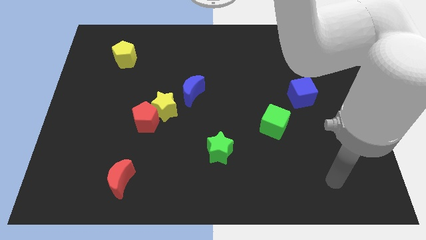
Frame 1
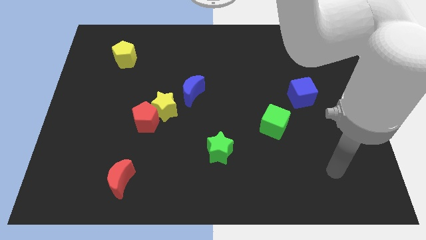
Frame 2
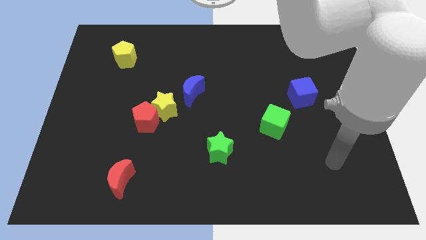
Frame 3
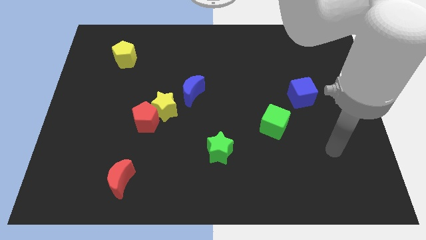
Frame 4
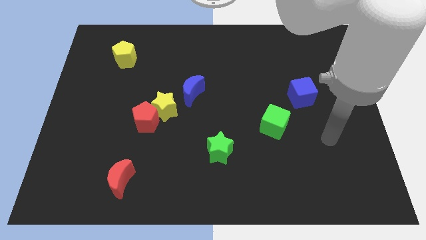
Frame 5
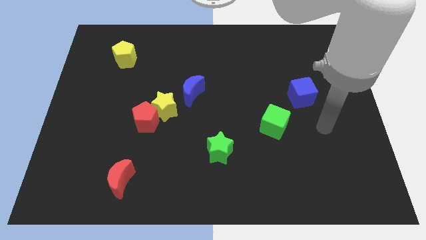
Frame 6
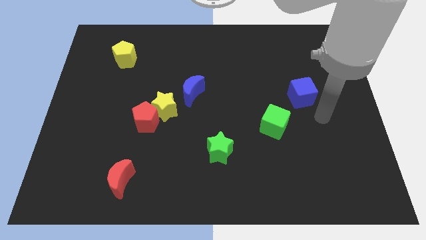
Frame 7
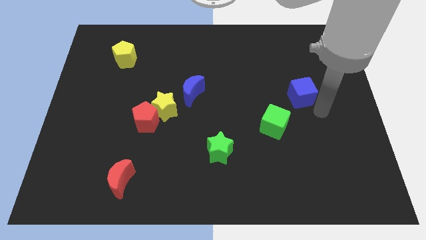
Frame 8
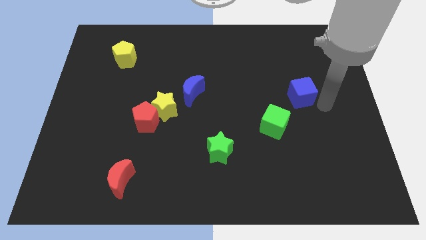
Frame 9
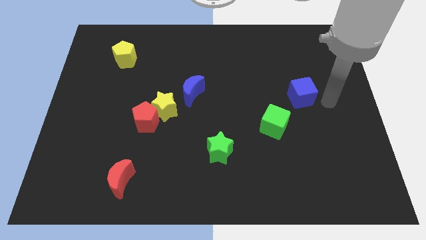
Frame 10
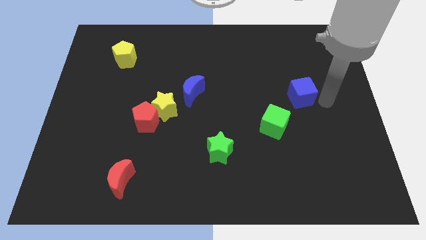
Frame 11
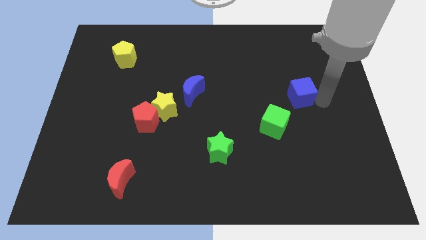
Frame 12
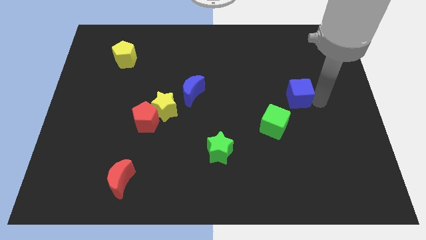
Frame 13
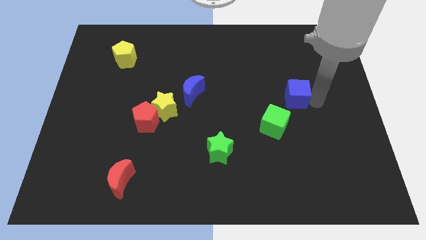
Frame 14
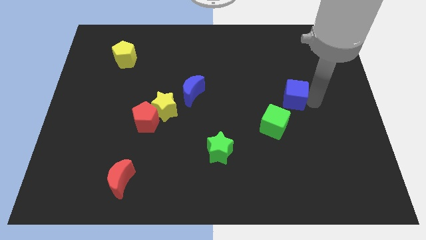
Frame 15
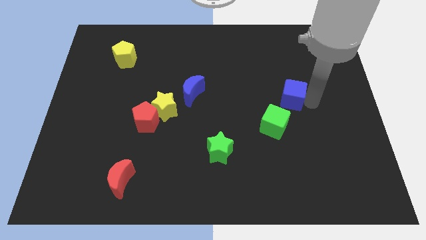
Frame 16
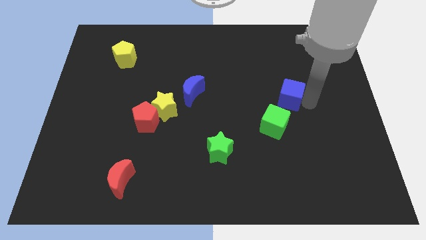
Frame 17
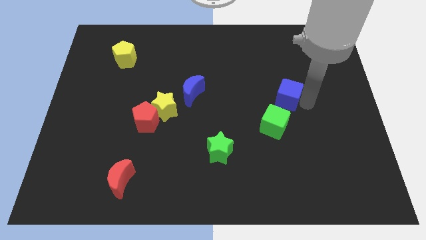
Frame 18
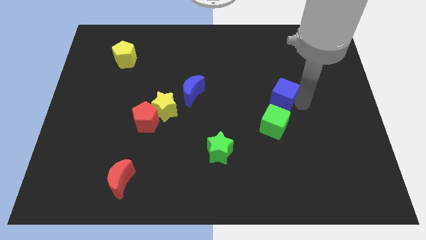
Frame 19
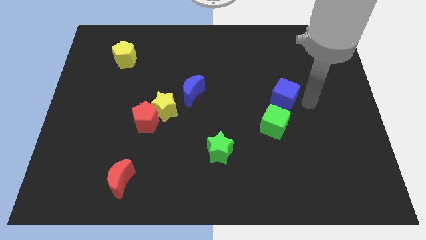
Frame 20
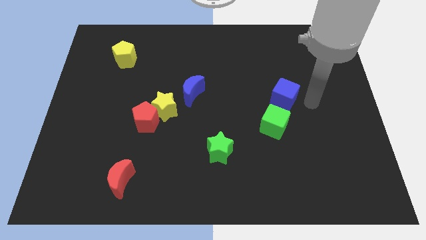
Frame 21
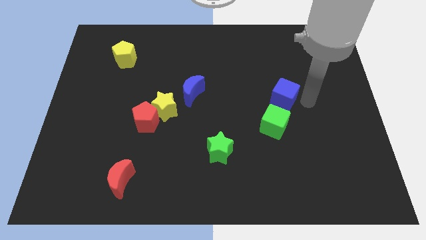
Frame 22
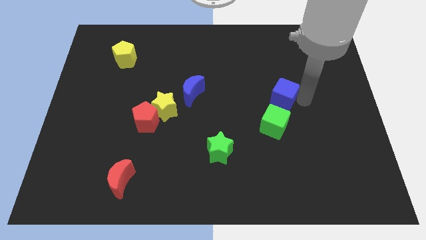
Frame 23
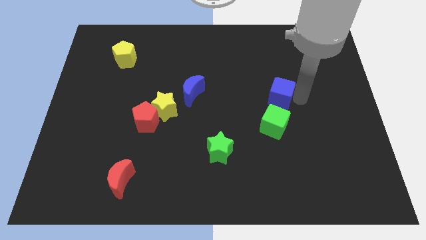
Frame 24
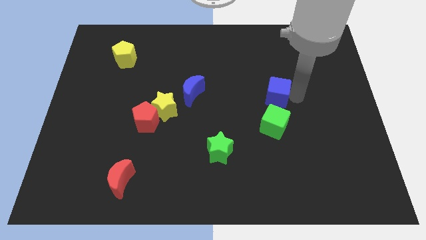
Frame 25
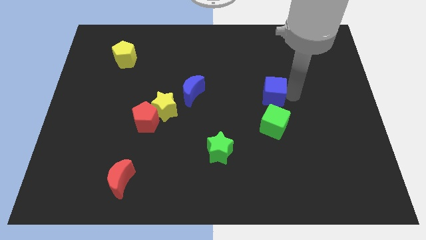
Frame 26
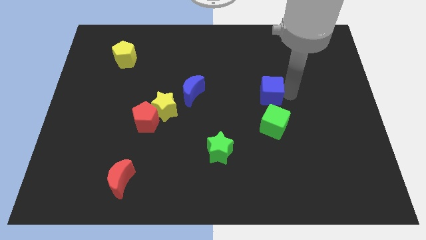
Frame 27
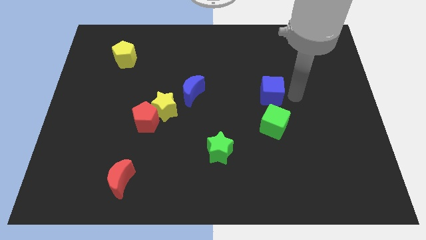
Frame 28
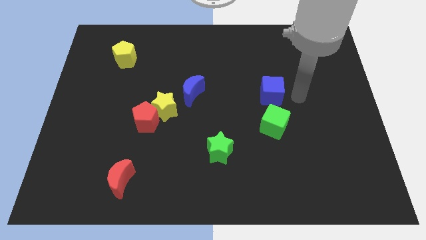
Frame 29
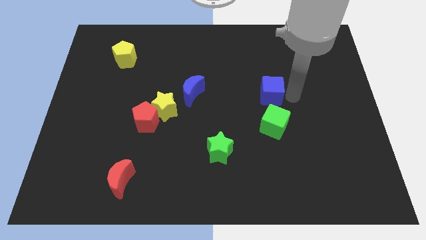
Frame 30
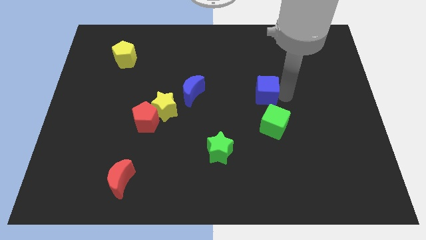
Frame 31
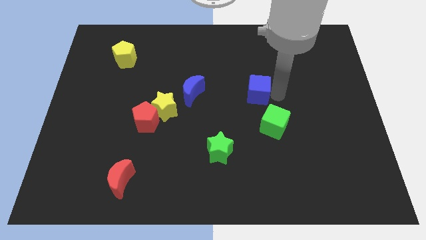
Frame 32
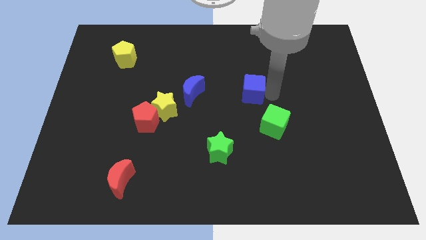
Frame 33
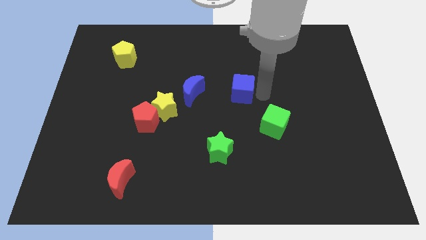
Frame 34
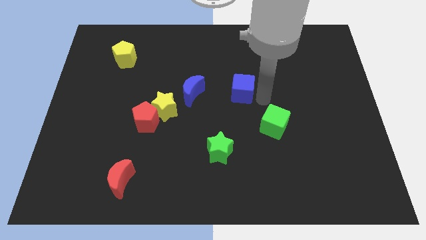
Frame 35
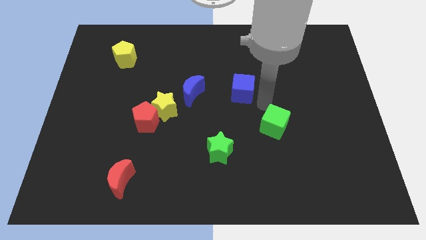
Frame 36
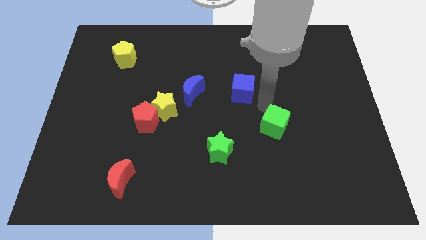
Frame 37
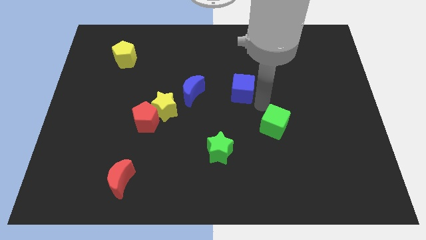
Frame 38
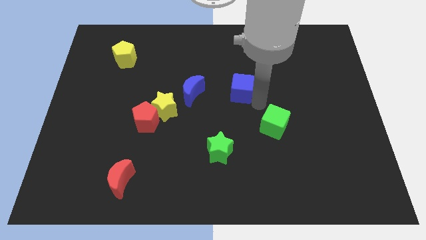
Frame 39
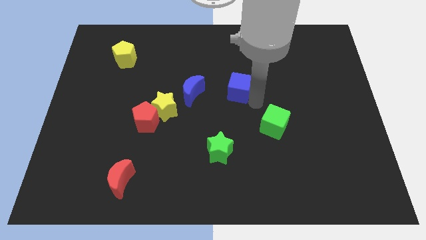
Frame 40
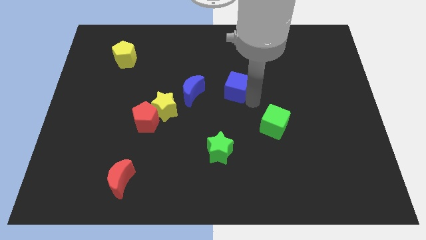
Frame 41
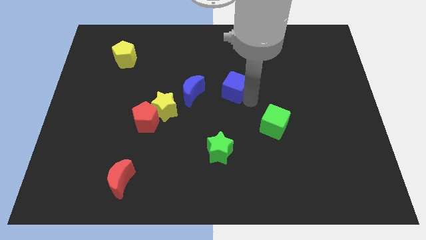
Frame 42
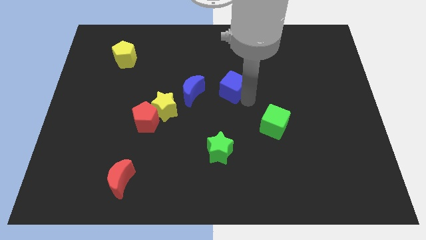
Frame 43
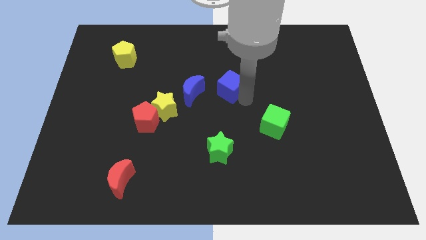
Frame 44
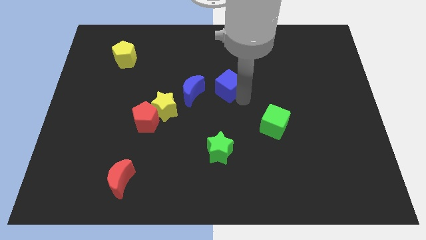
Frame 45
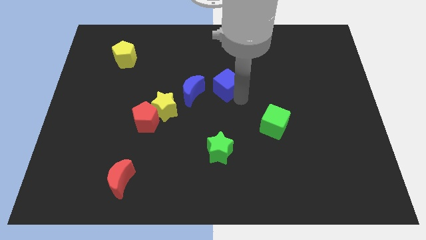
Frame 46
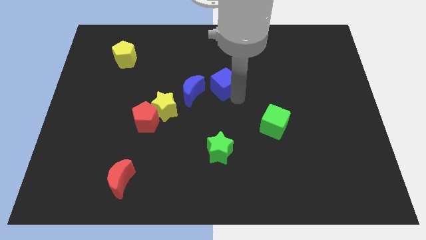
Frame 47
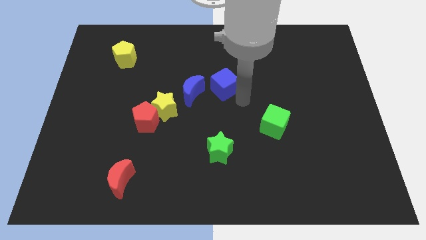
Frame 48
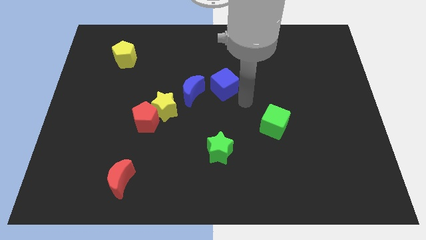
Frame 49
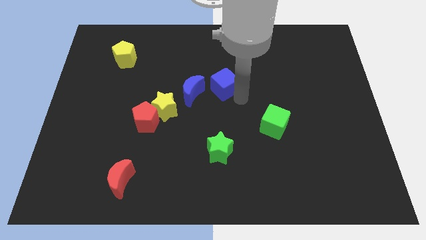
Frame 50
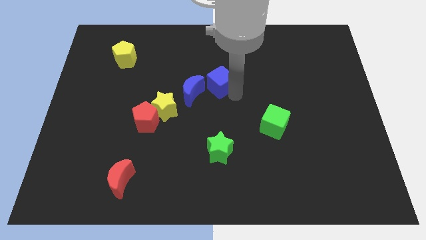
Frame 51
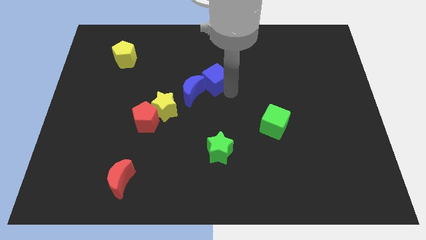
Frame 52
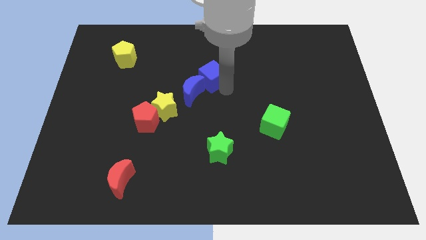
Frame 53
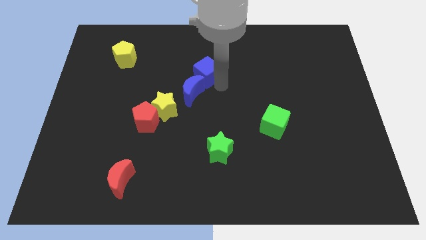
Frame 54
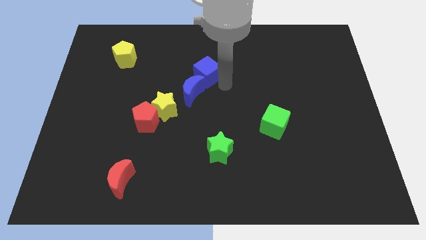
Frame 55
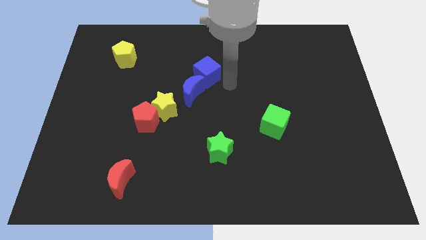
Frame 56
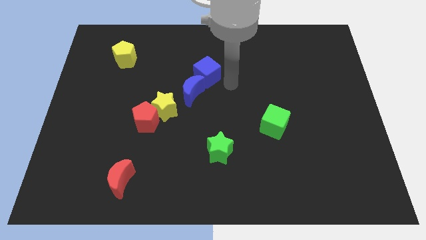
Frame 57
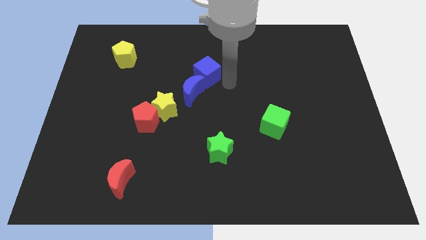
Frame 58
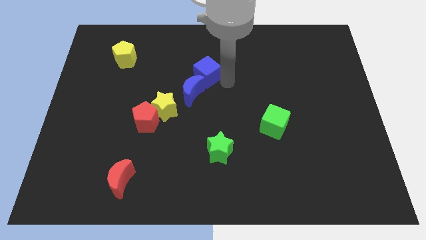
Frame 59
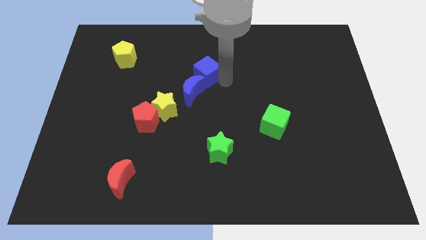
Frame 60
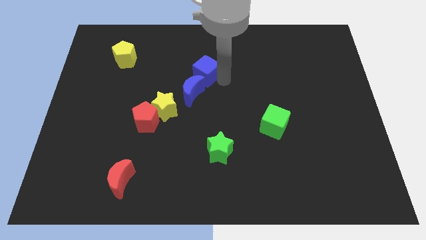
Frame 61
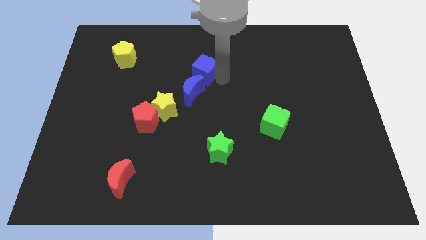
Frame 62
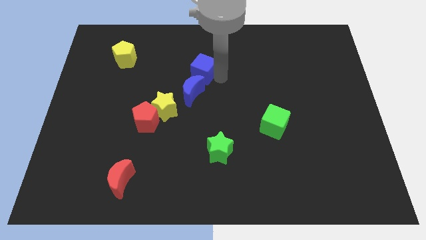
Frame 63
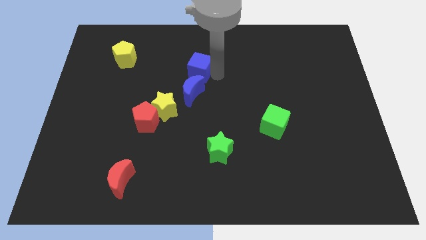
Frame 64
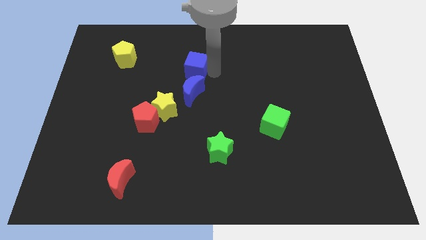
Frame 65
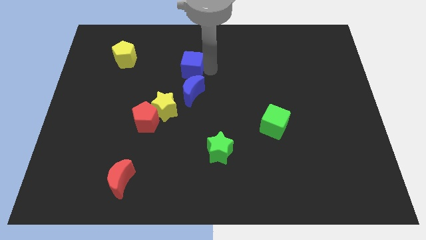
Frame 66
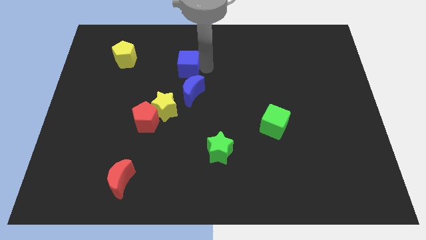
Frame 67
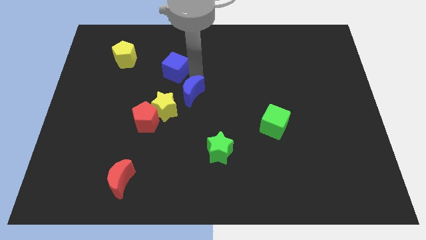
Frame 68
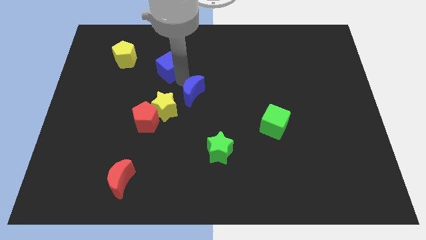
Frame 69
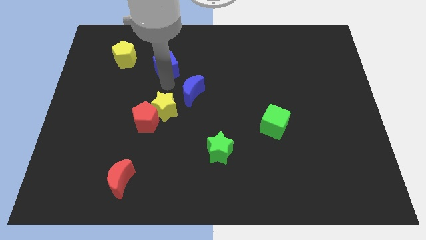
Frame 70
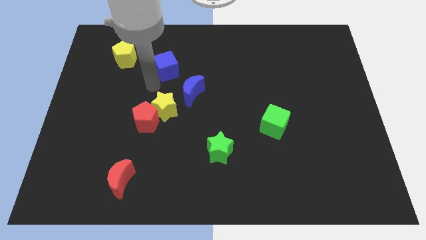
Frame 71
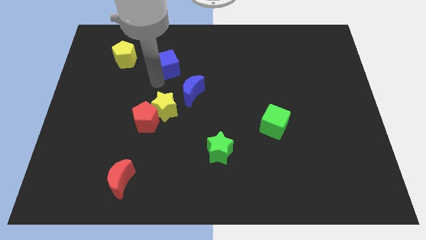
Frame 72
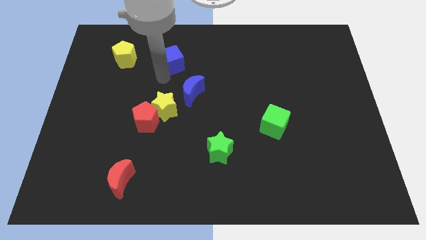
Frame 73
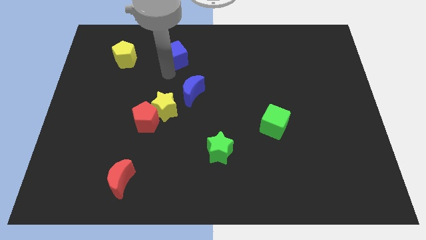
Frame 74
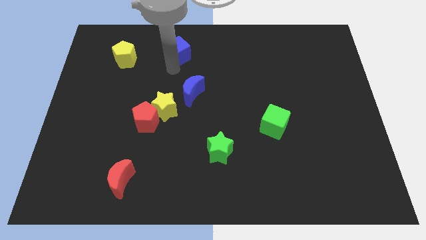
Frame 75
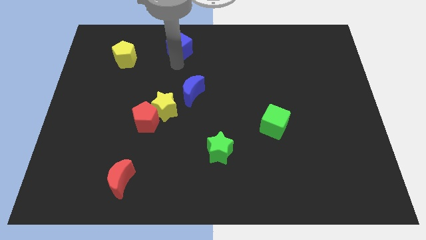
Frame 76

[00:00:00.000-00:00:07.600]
put the blue cube to the towards your base
